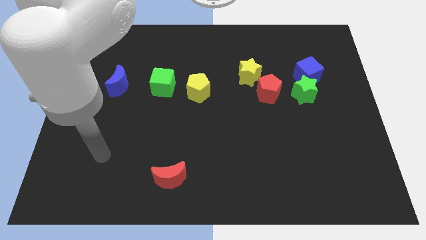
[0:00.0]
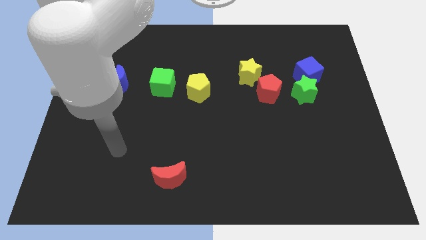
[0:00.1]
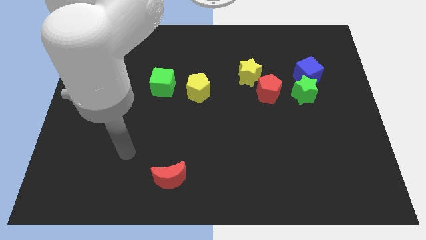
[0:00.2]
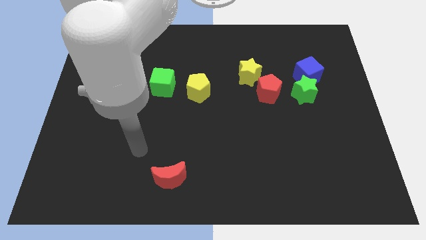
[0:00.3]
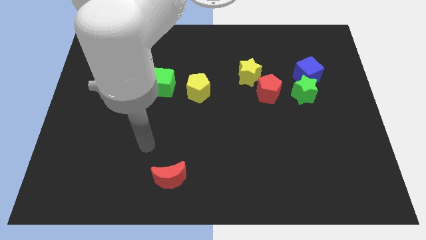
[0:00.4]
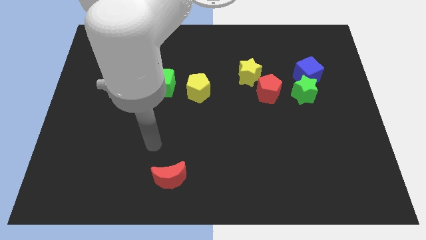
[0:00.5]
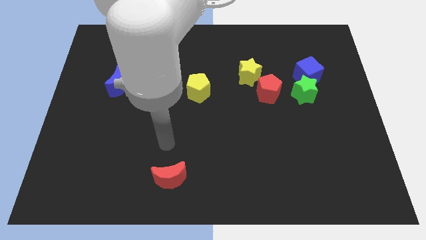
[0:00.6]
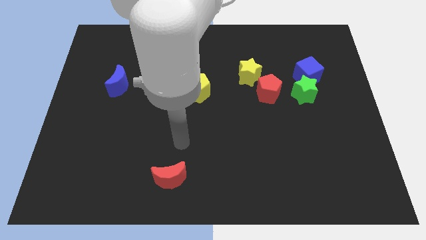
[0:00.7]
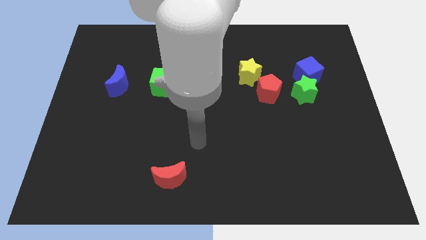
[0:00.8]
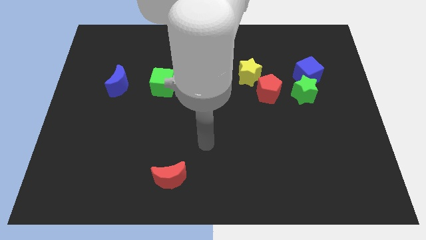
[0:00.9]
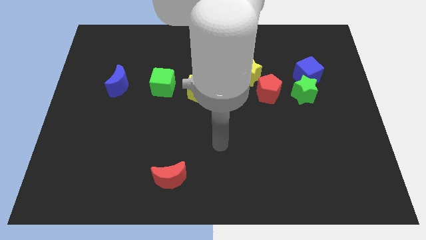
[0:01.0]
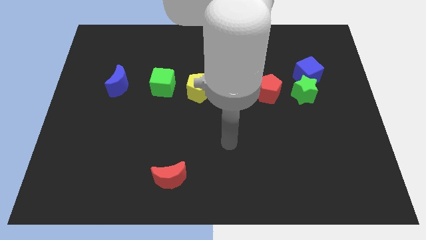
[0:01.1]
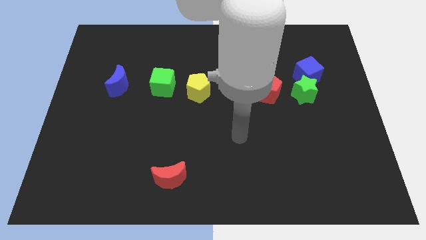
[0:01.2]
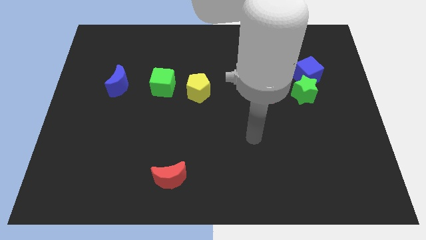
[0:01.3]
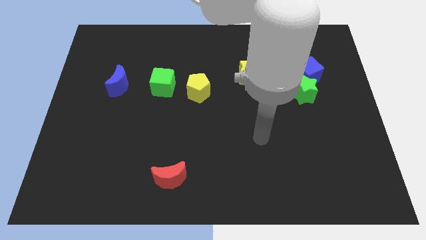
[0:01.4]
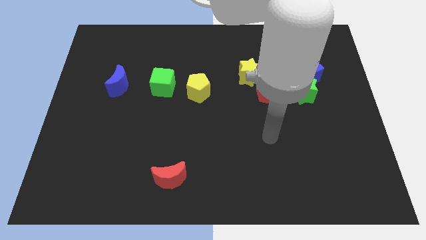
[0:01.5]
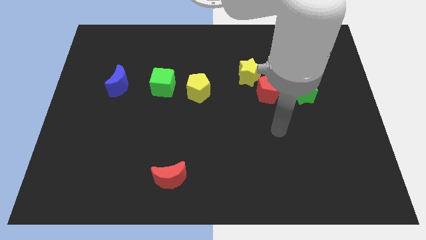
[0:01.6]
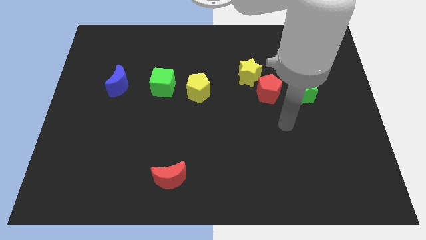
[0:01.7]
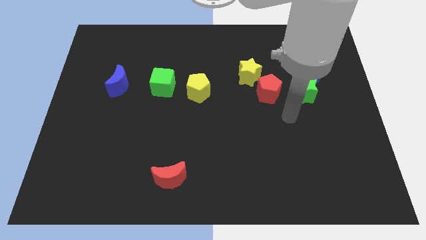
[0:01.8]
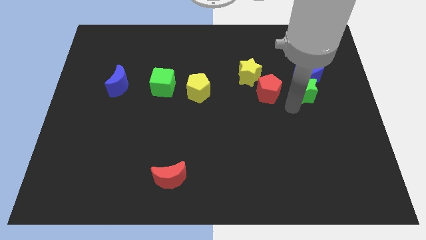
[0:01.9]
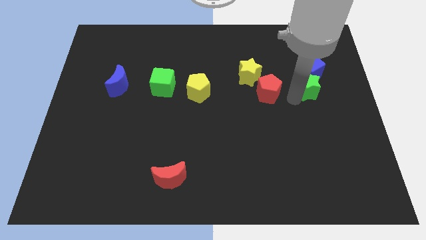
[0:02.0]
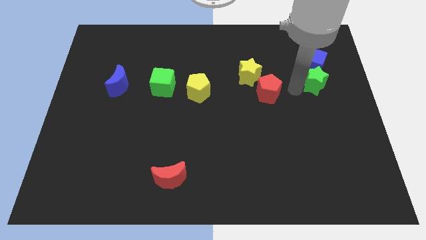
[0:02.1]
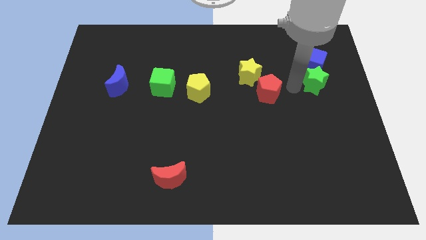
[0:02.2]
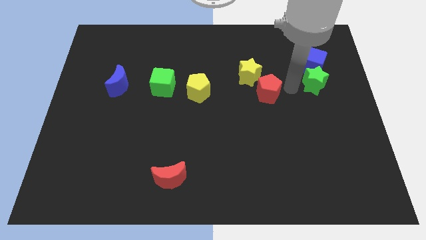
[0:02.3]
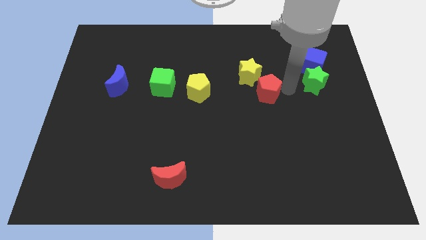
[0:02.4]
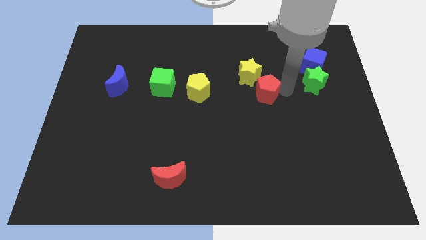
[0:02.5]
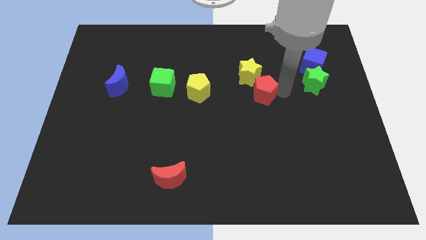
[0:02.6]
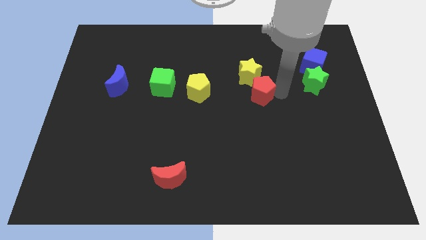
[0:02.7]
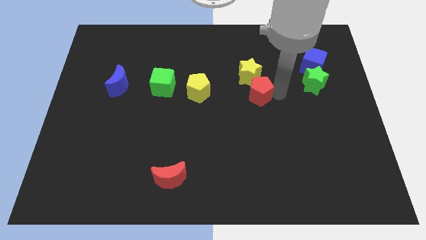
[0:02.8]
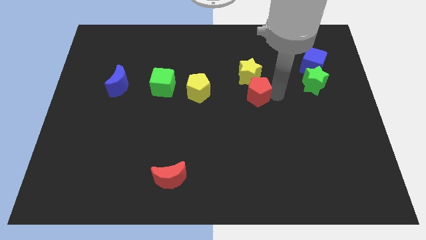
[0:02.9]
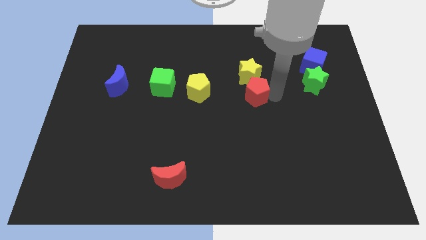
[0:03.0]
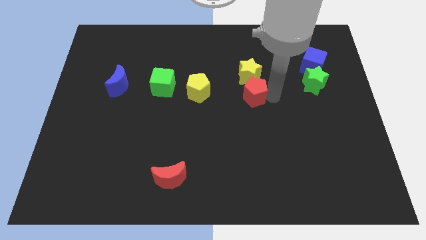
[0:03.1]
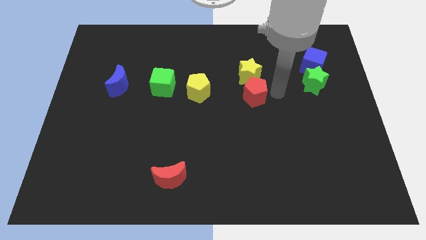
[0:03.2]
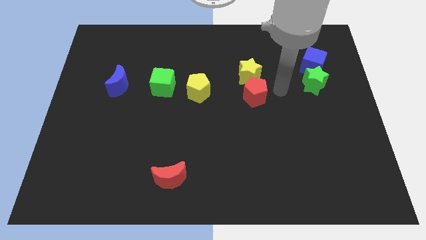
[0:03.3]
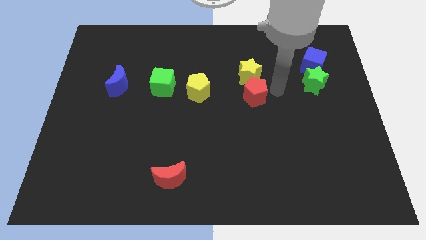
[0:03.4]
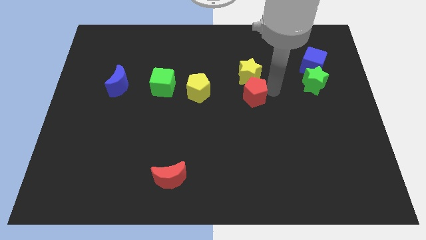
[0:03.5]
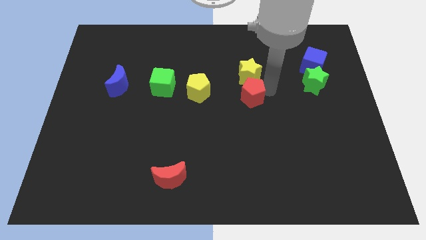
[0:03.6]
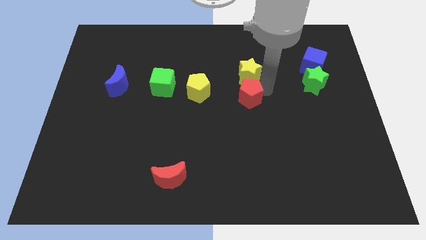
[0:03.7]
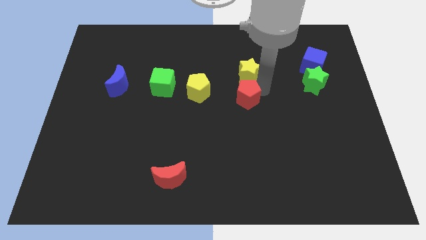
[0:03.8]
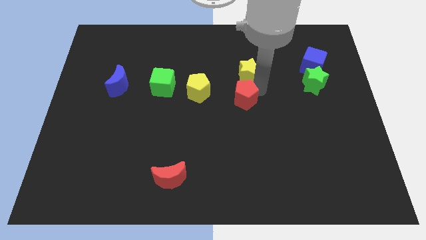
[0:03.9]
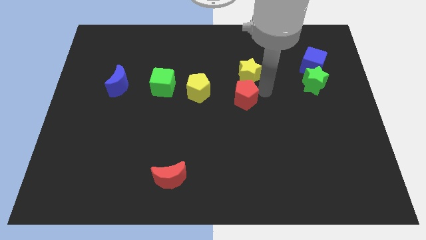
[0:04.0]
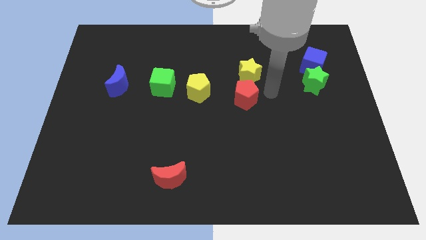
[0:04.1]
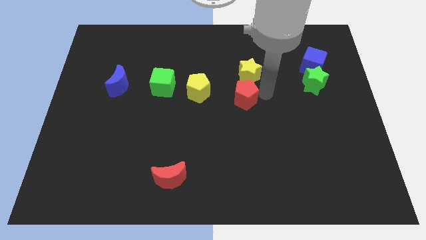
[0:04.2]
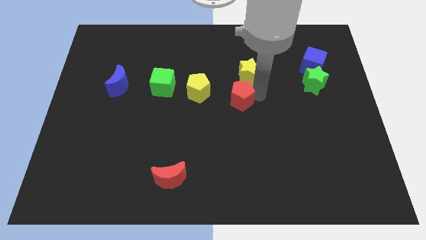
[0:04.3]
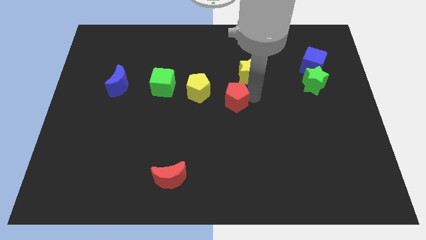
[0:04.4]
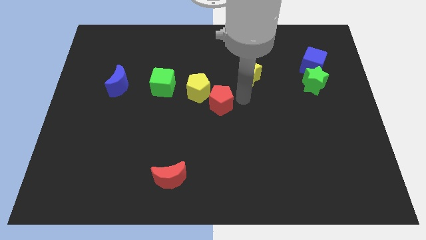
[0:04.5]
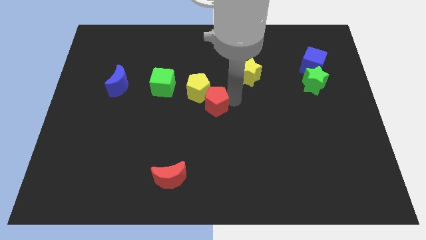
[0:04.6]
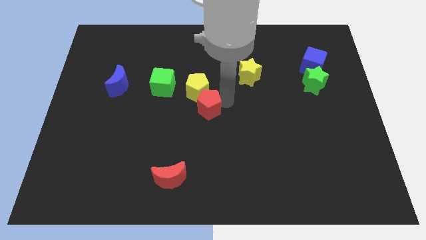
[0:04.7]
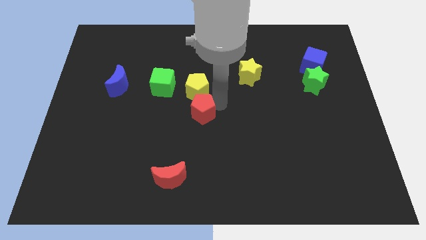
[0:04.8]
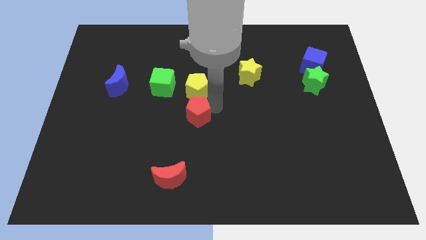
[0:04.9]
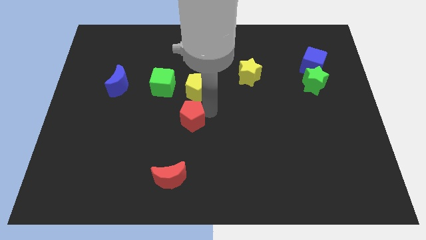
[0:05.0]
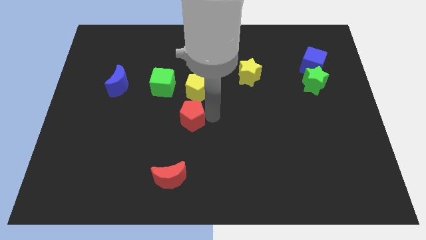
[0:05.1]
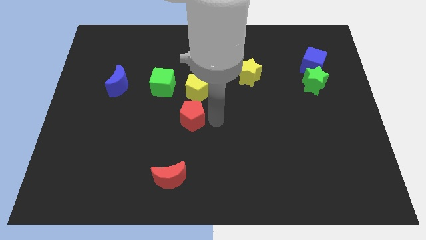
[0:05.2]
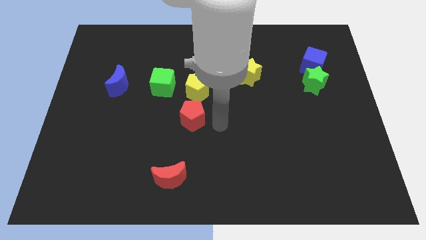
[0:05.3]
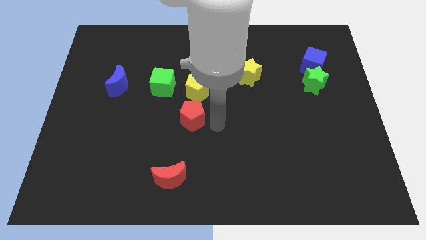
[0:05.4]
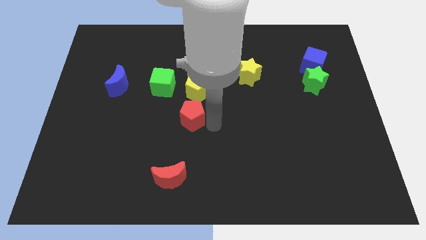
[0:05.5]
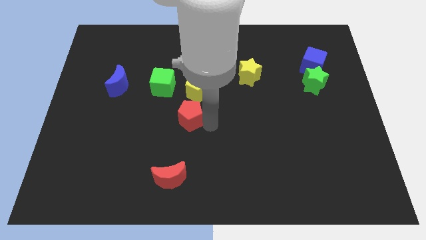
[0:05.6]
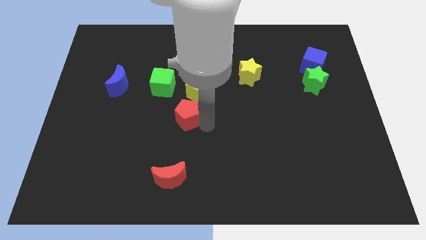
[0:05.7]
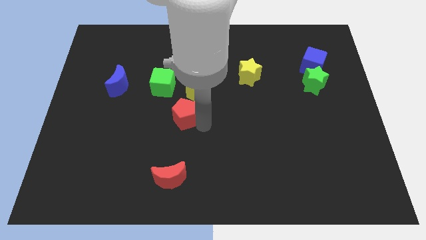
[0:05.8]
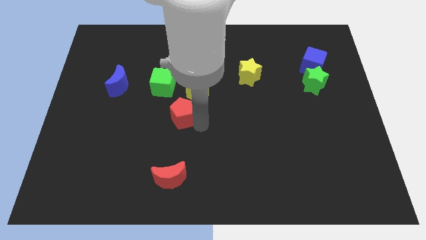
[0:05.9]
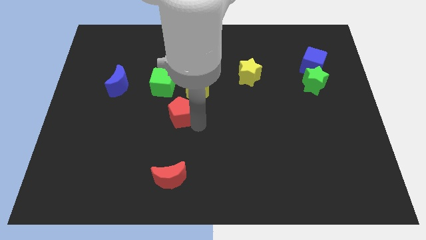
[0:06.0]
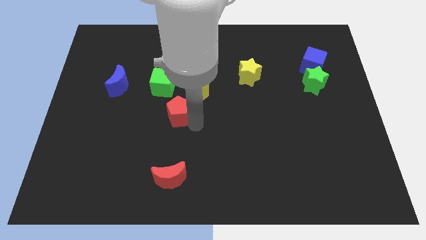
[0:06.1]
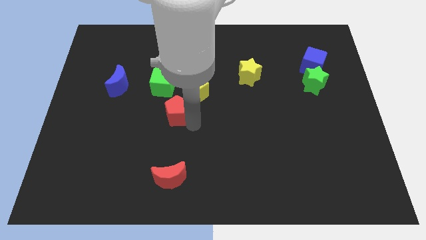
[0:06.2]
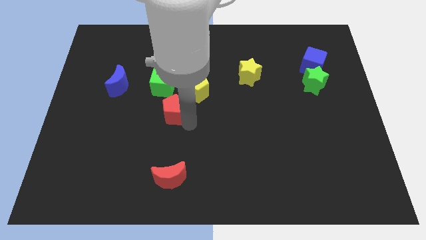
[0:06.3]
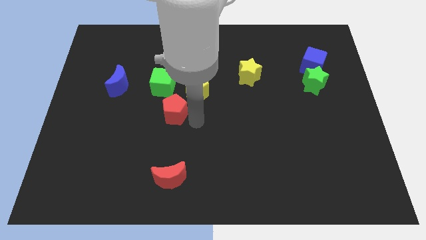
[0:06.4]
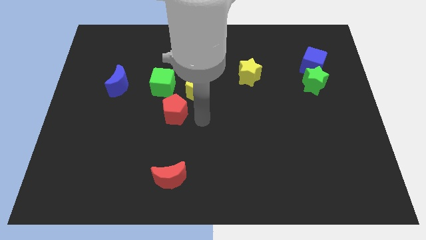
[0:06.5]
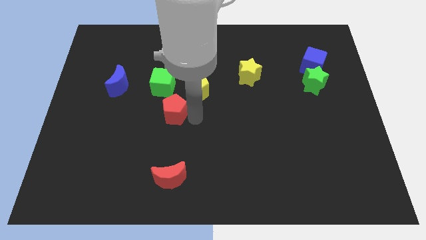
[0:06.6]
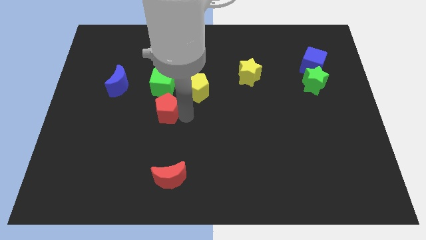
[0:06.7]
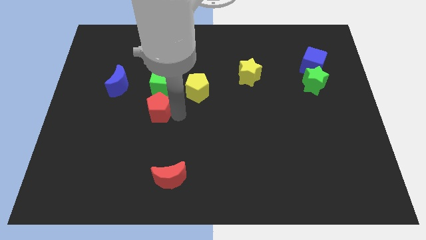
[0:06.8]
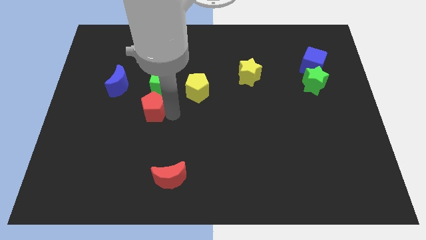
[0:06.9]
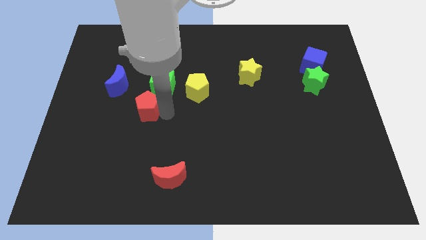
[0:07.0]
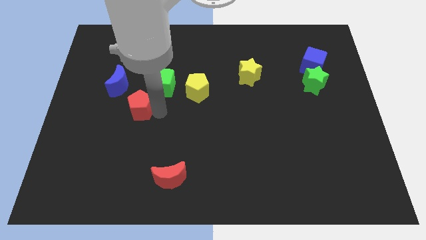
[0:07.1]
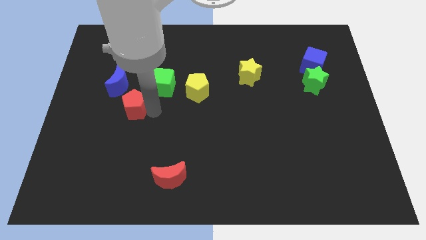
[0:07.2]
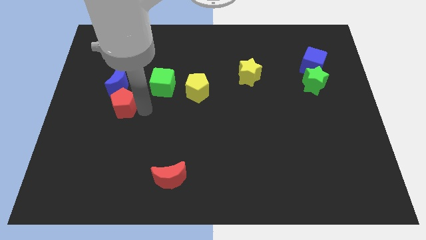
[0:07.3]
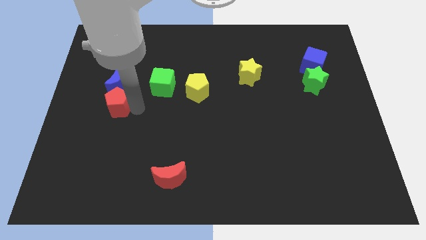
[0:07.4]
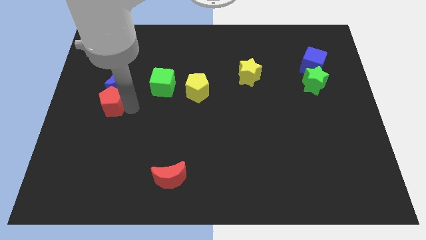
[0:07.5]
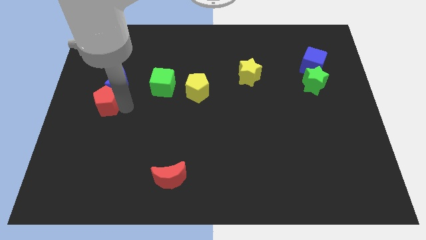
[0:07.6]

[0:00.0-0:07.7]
slide the red pentagon to the left side
